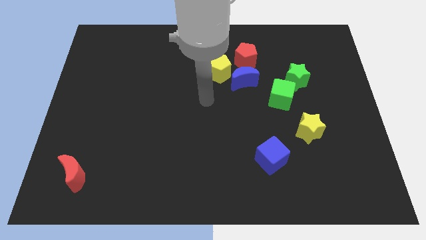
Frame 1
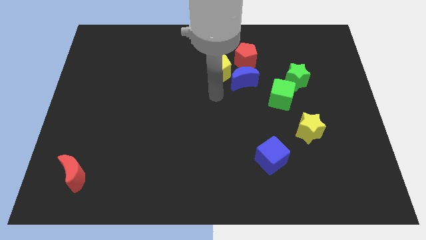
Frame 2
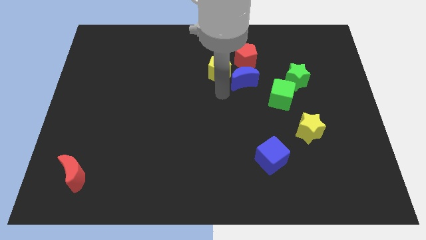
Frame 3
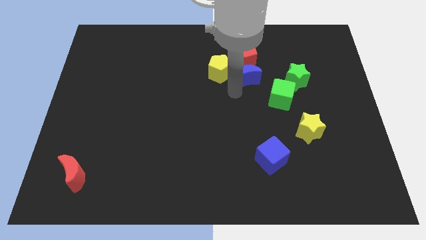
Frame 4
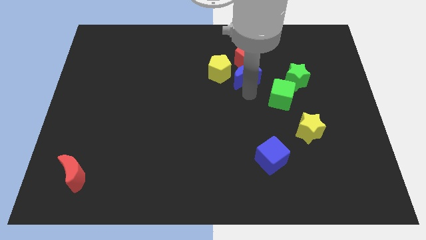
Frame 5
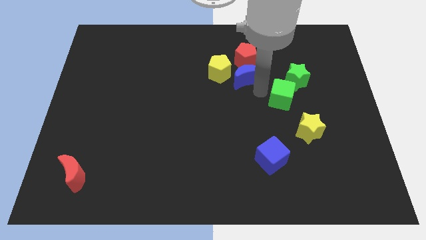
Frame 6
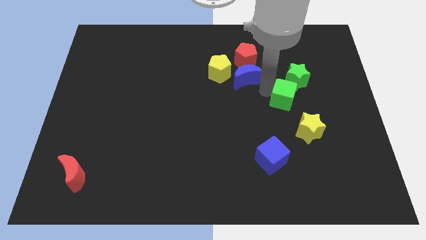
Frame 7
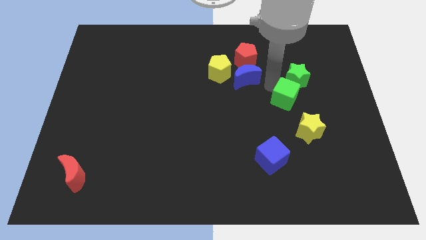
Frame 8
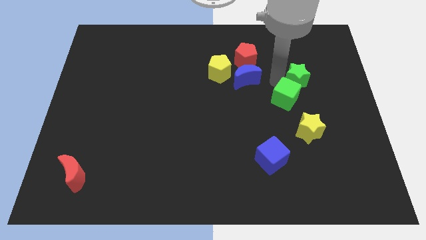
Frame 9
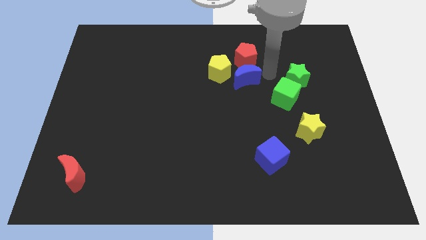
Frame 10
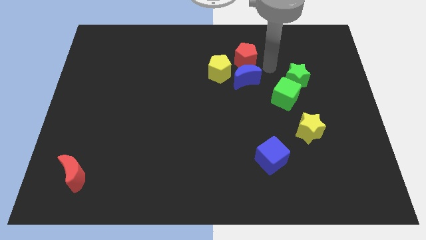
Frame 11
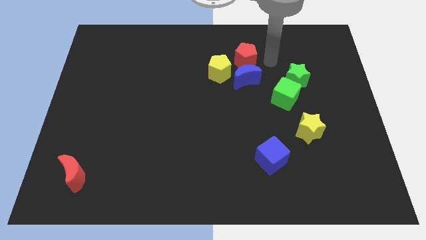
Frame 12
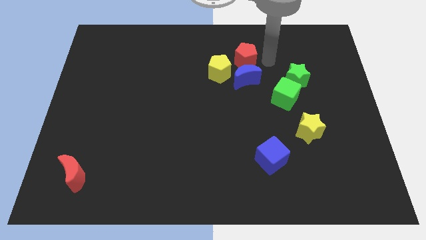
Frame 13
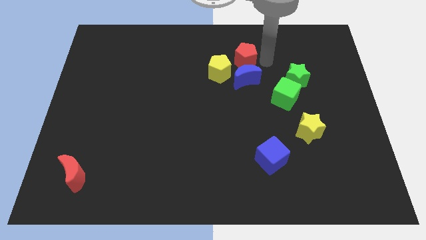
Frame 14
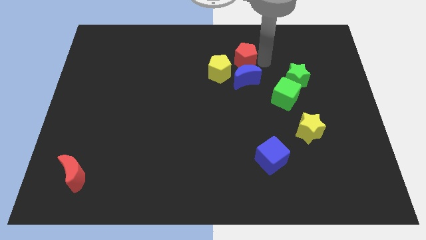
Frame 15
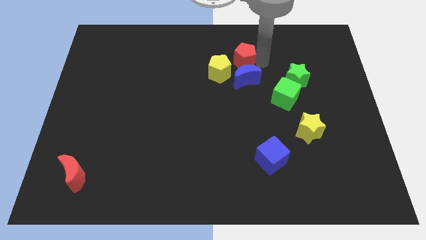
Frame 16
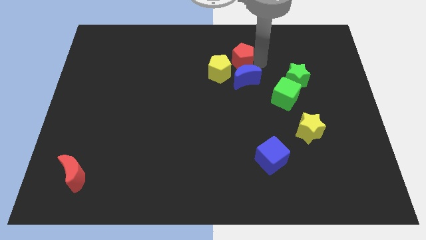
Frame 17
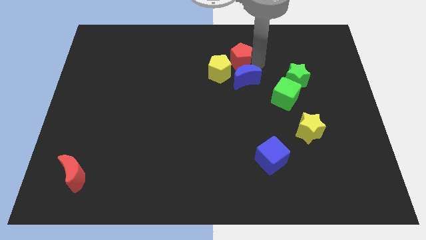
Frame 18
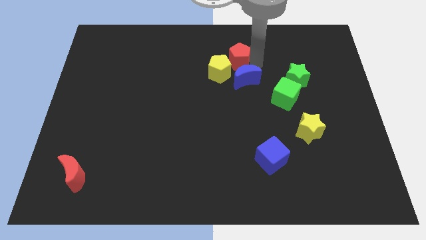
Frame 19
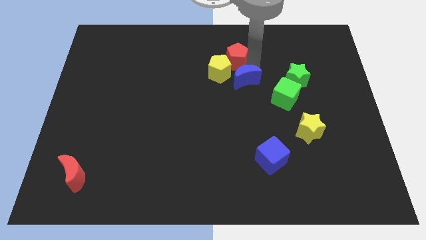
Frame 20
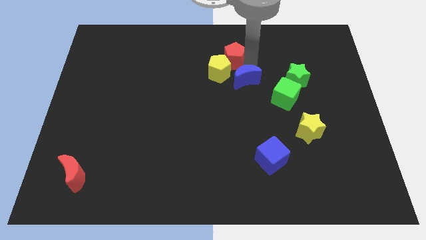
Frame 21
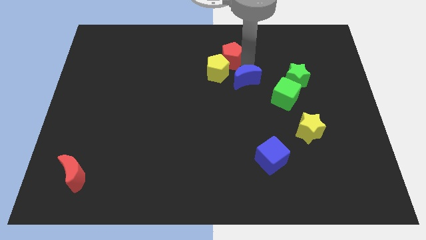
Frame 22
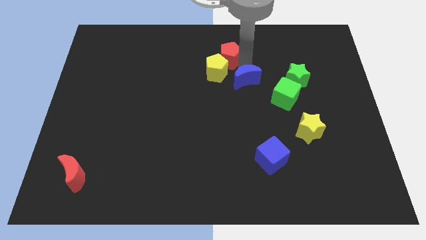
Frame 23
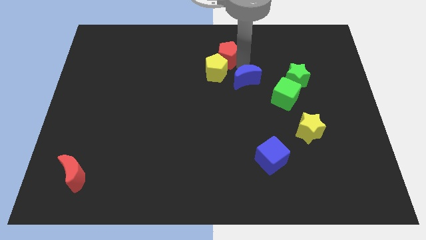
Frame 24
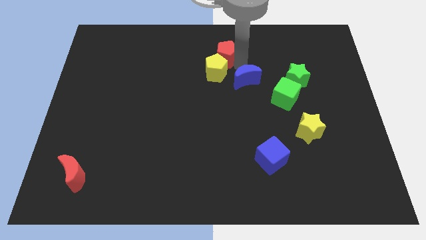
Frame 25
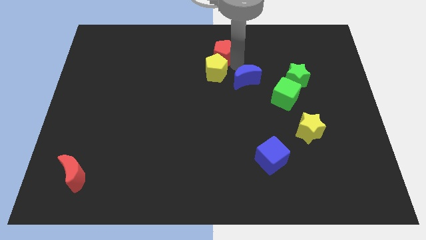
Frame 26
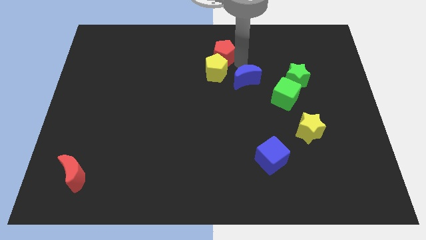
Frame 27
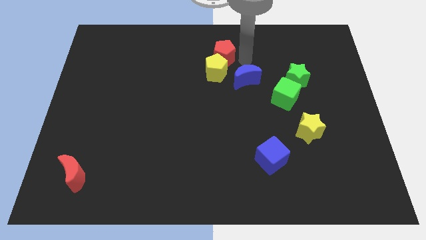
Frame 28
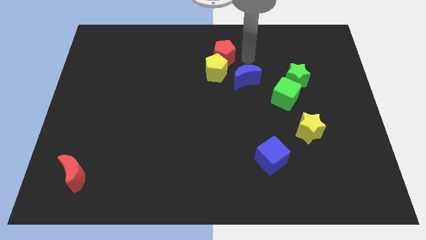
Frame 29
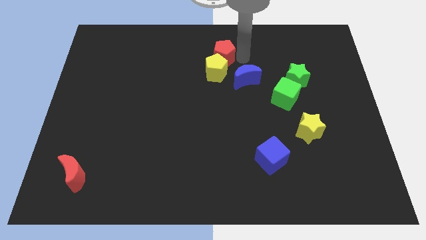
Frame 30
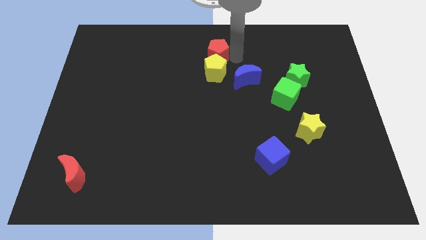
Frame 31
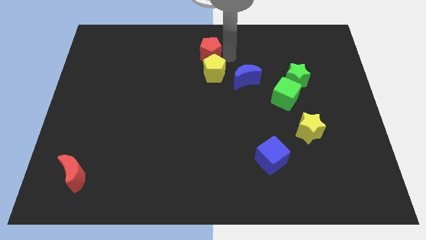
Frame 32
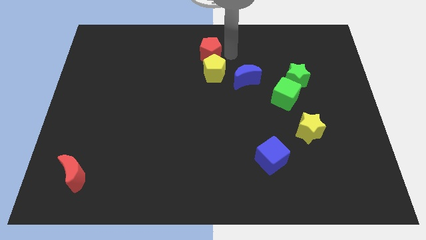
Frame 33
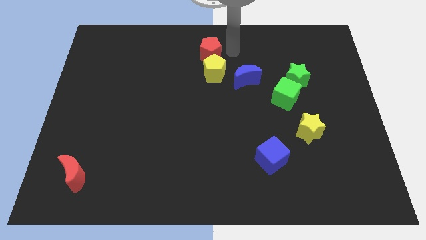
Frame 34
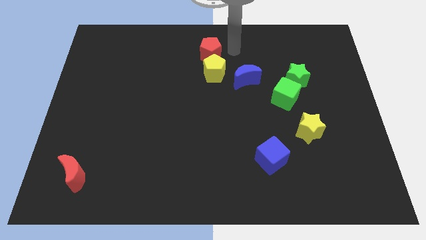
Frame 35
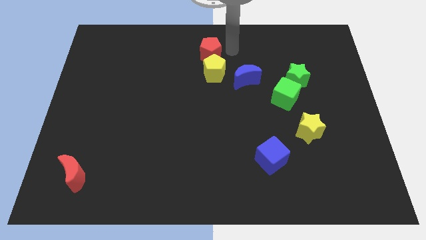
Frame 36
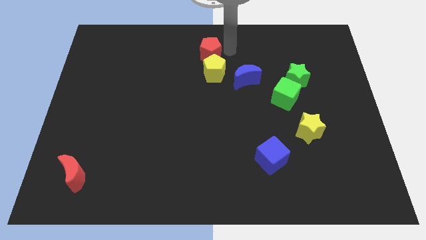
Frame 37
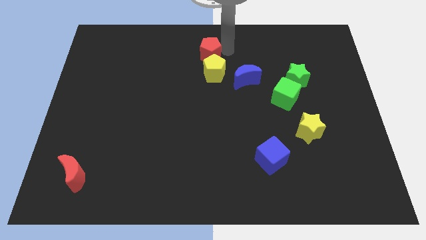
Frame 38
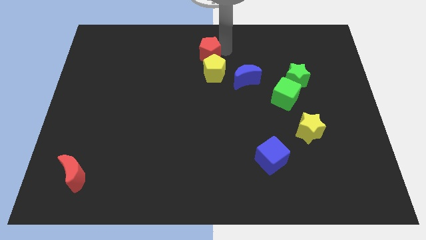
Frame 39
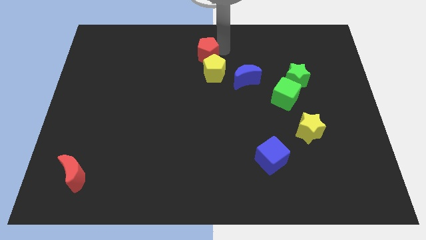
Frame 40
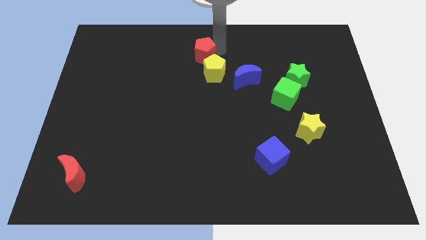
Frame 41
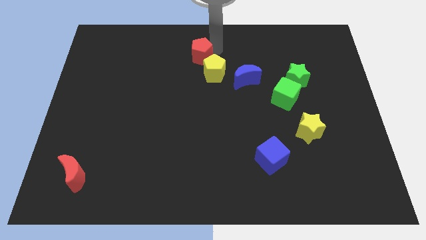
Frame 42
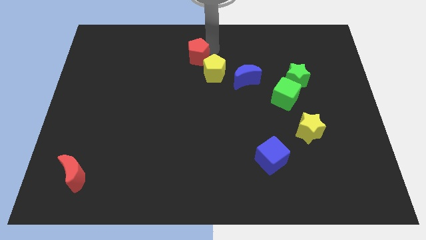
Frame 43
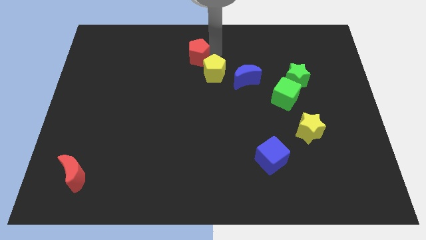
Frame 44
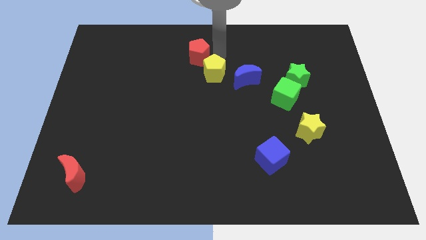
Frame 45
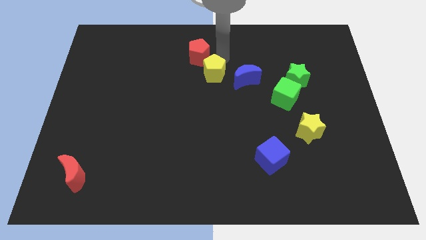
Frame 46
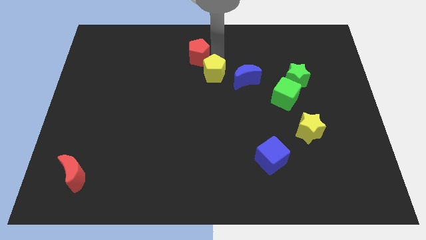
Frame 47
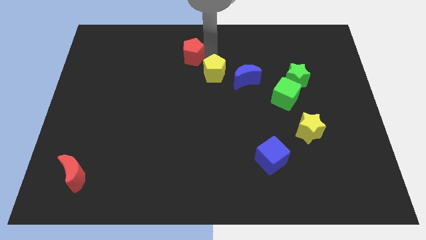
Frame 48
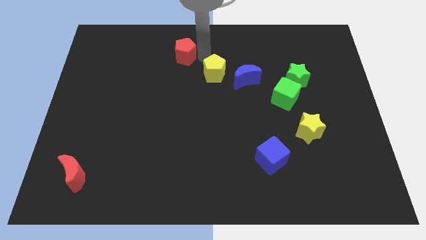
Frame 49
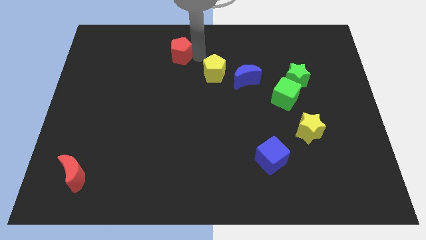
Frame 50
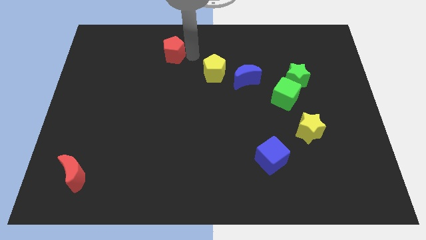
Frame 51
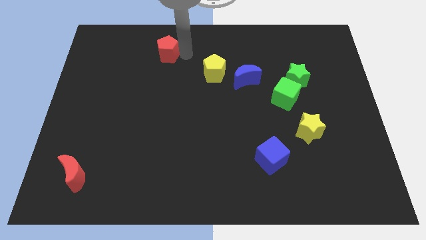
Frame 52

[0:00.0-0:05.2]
move the red pentagon left

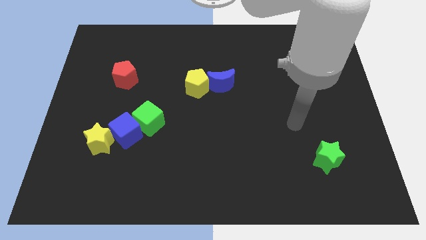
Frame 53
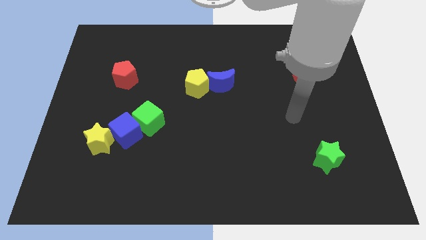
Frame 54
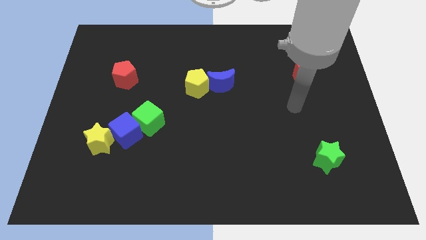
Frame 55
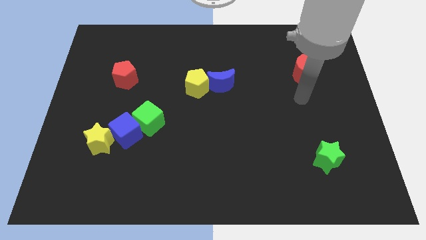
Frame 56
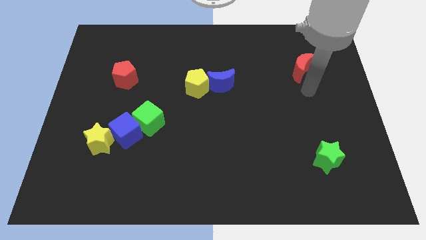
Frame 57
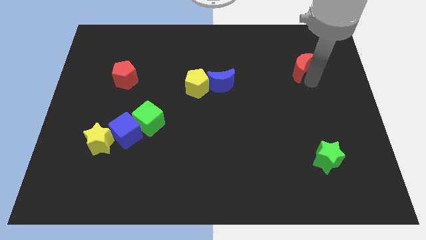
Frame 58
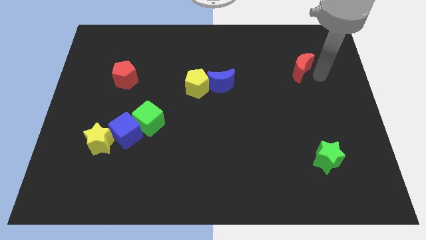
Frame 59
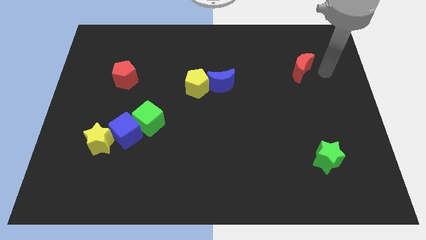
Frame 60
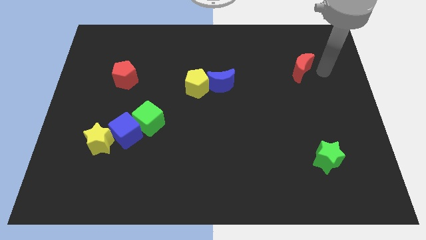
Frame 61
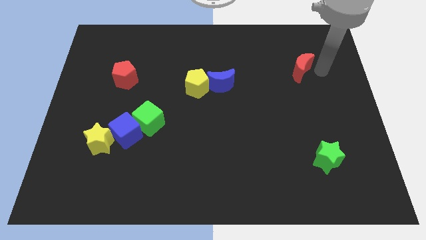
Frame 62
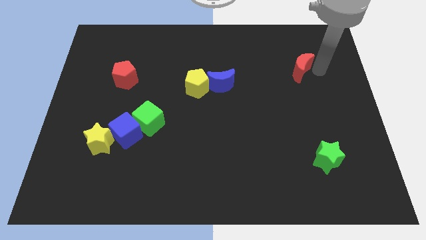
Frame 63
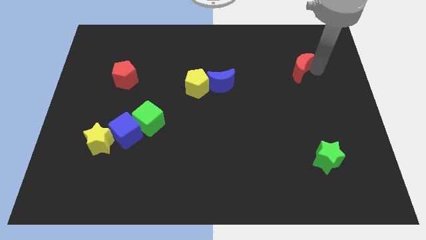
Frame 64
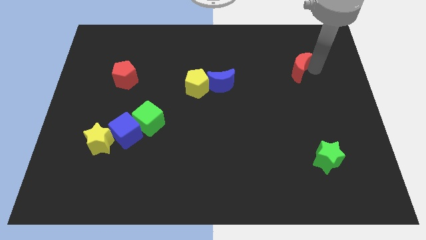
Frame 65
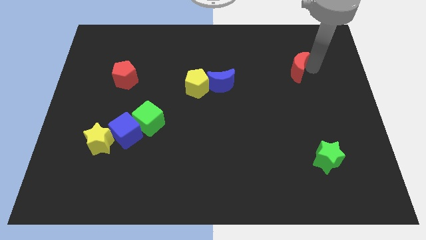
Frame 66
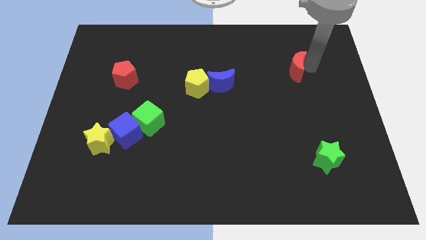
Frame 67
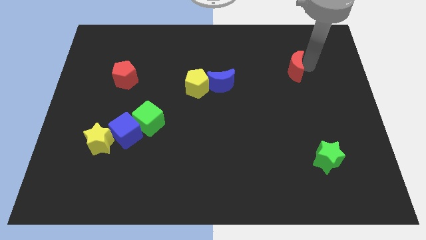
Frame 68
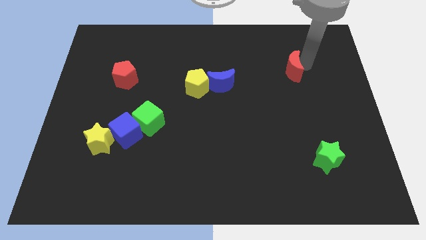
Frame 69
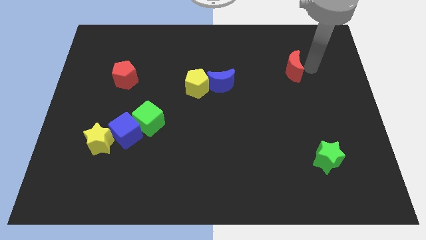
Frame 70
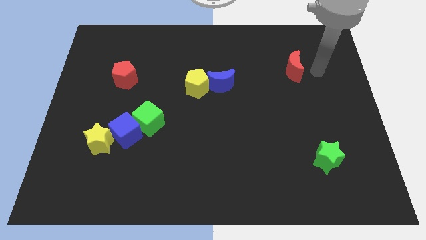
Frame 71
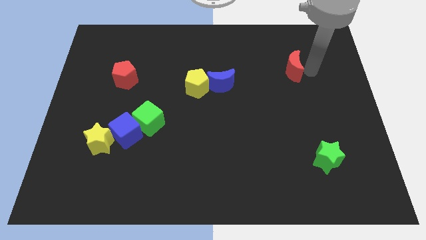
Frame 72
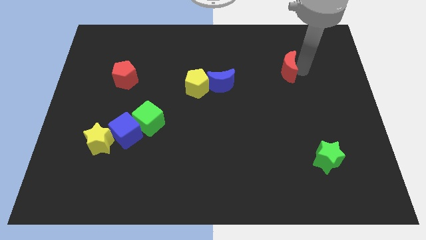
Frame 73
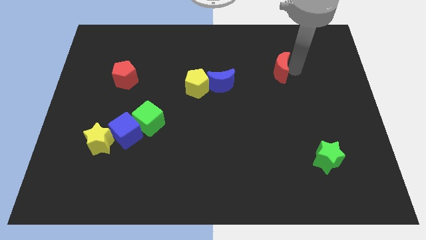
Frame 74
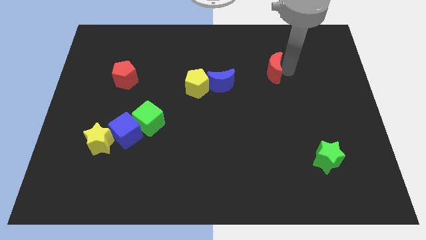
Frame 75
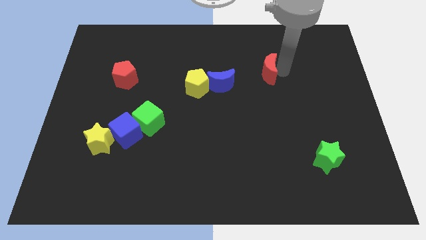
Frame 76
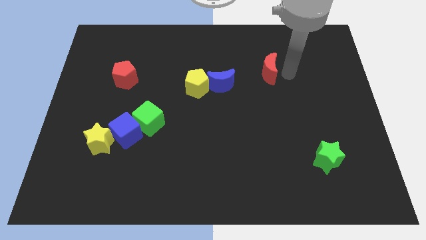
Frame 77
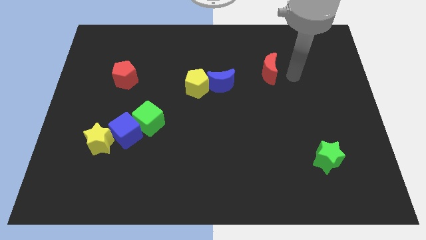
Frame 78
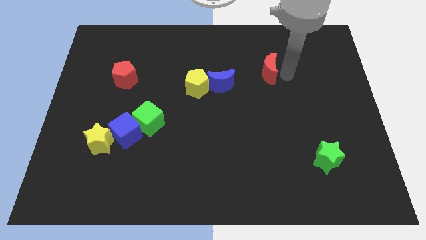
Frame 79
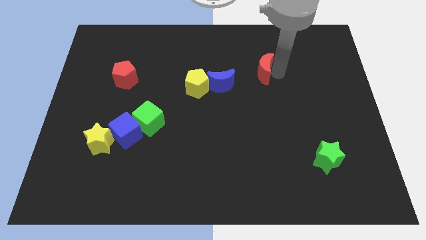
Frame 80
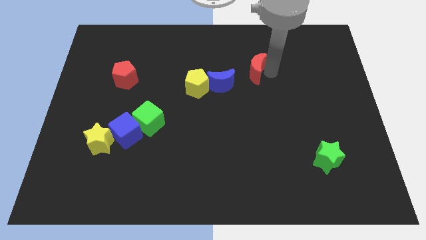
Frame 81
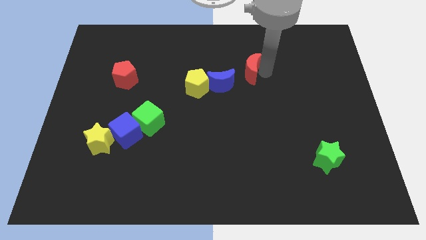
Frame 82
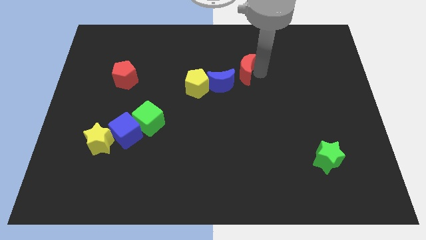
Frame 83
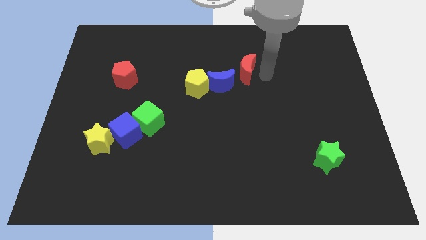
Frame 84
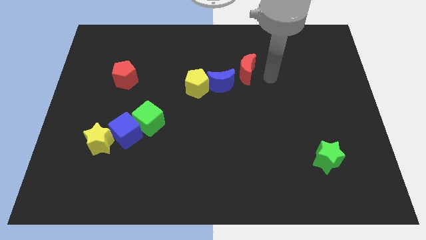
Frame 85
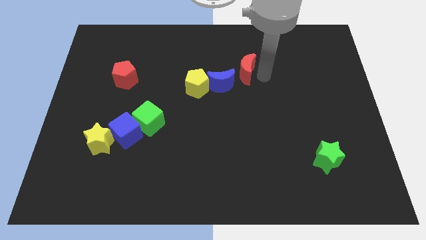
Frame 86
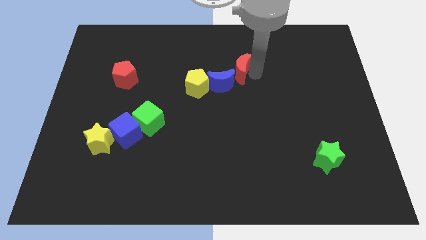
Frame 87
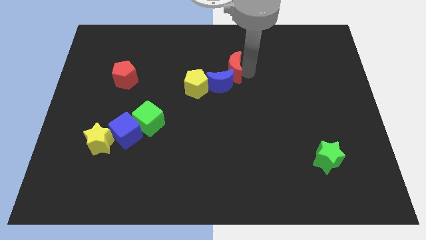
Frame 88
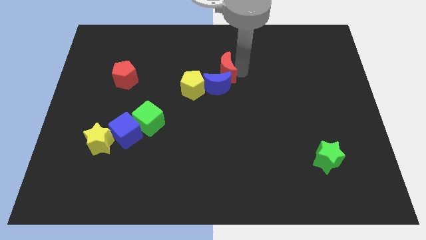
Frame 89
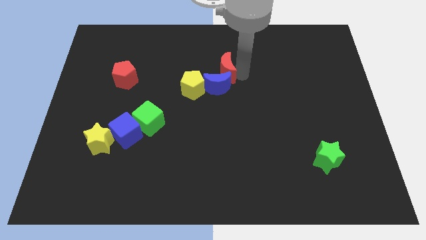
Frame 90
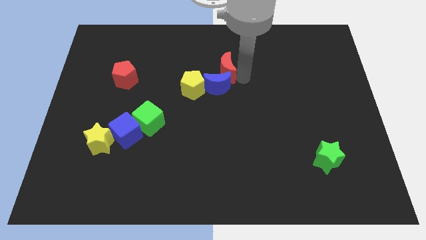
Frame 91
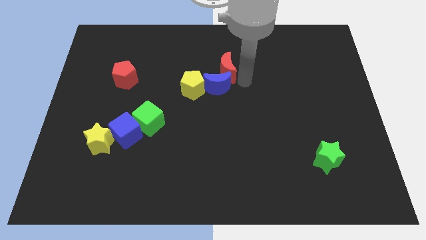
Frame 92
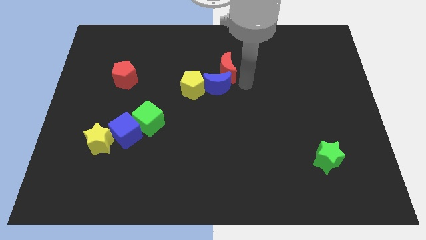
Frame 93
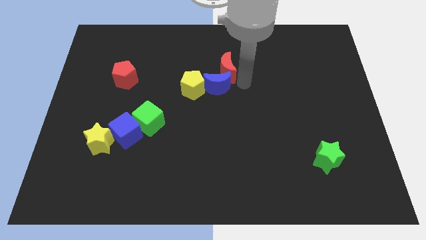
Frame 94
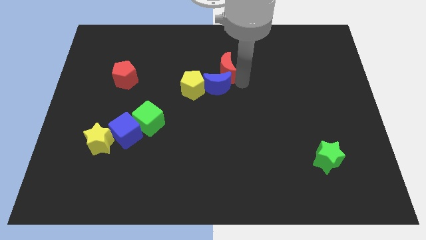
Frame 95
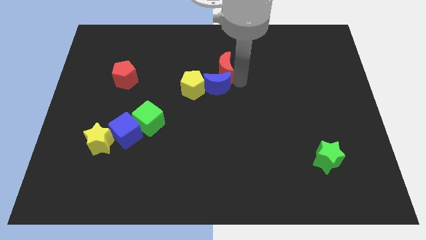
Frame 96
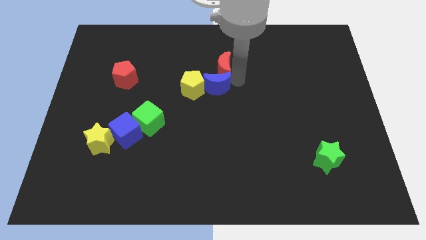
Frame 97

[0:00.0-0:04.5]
move the red moon to the left
